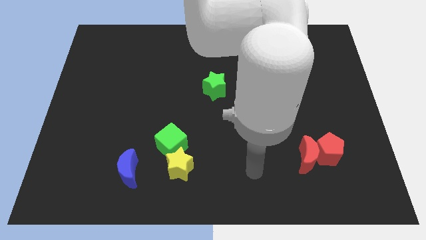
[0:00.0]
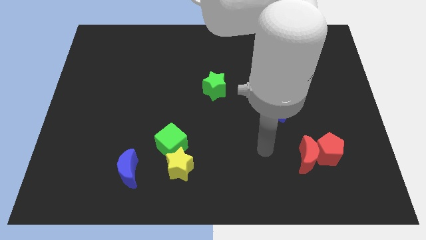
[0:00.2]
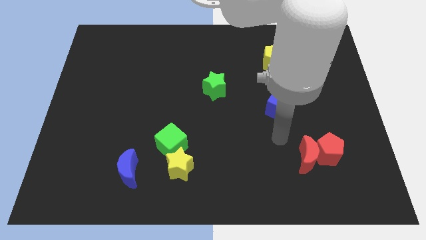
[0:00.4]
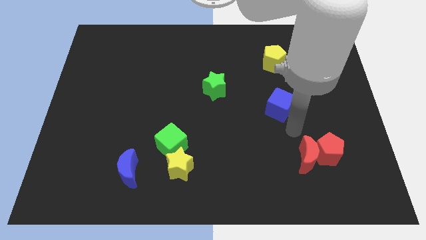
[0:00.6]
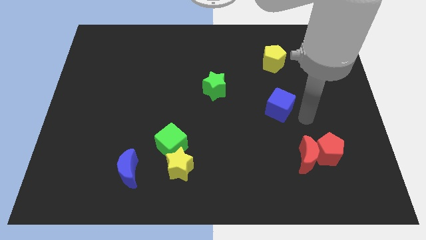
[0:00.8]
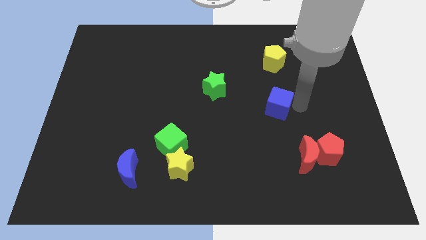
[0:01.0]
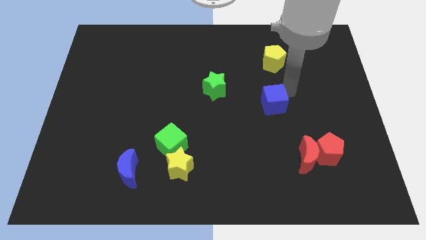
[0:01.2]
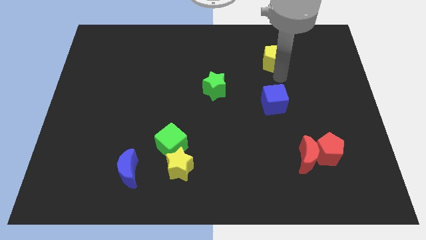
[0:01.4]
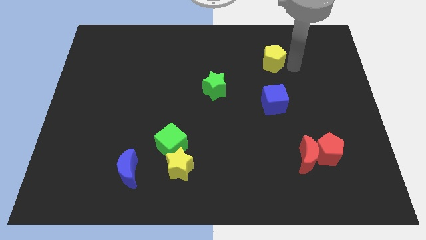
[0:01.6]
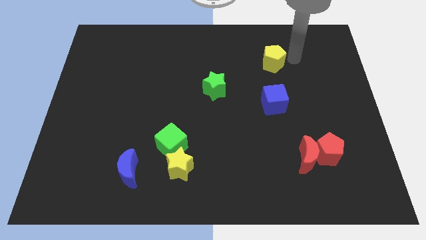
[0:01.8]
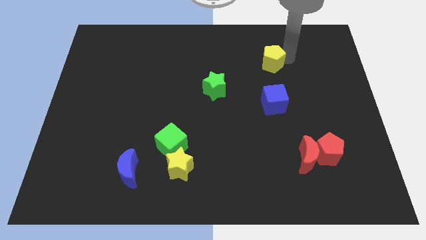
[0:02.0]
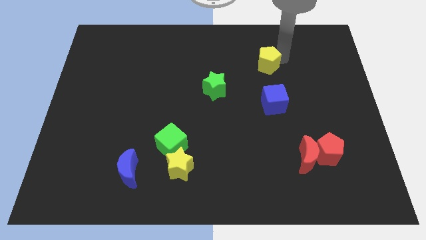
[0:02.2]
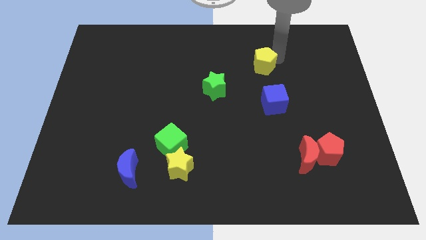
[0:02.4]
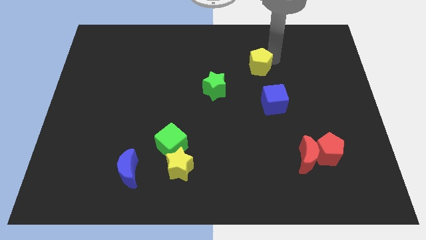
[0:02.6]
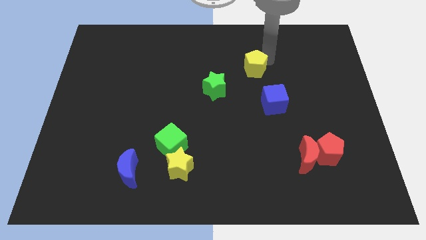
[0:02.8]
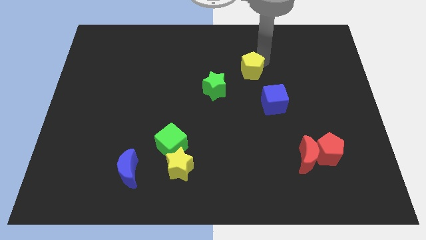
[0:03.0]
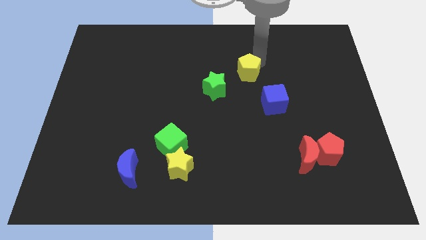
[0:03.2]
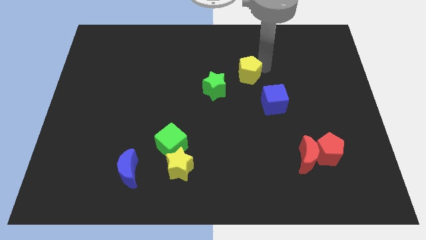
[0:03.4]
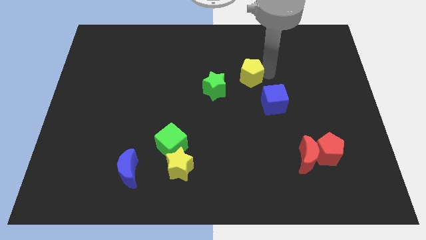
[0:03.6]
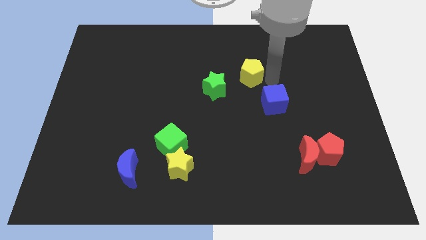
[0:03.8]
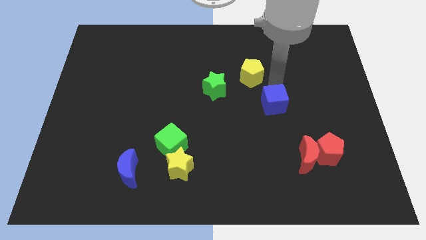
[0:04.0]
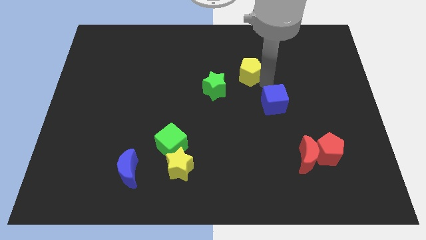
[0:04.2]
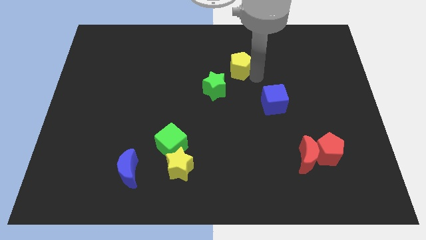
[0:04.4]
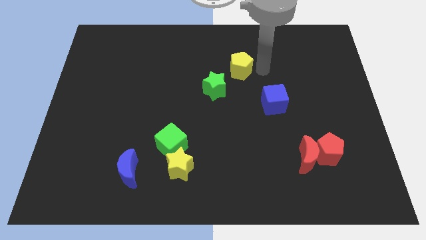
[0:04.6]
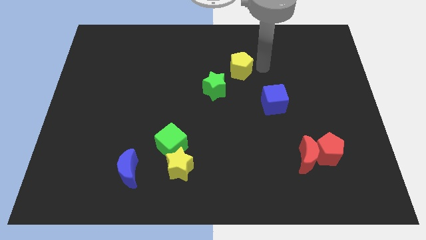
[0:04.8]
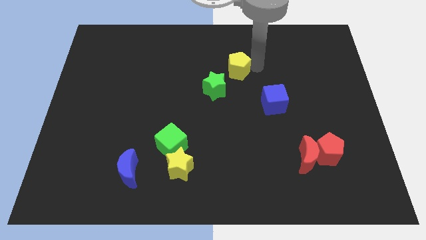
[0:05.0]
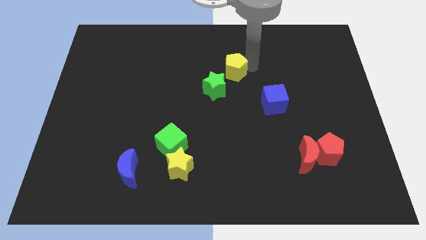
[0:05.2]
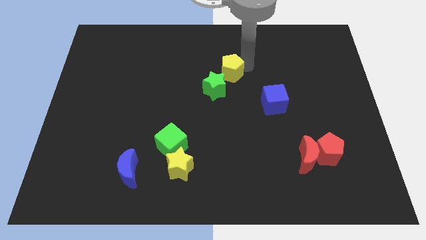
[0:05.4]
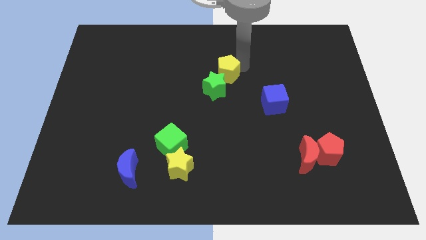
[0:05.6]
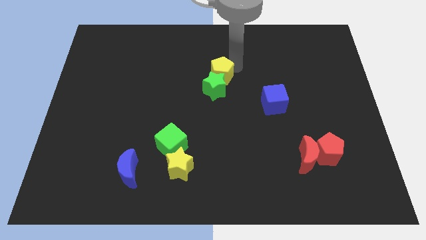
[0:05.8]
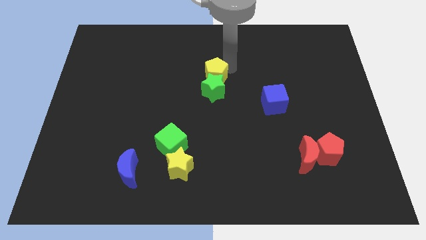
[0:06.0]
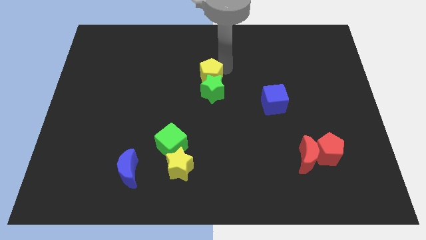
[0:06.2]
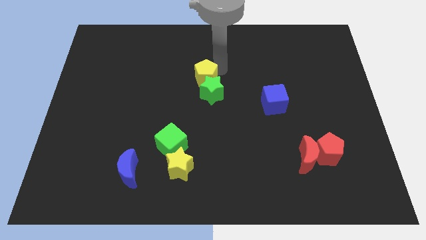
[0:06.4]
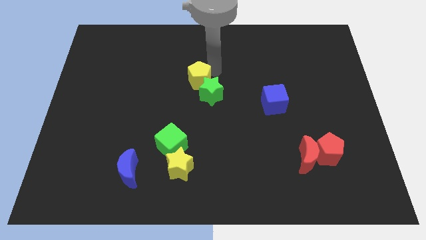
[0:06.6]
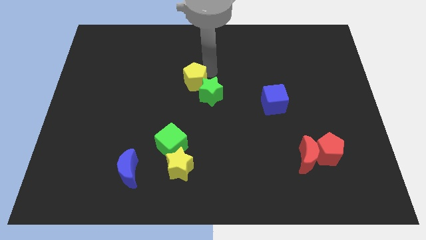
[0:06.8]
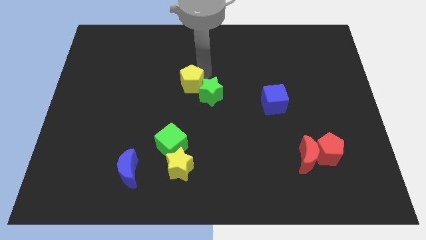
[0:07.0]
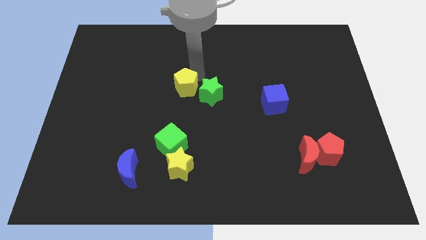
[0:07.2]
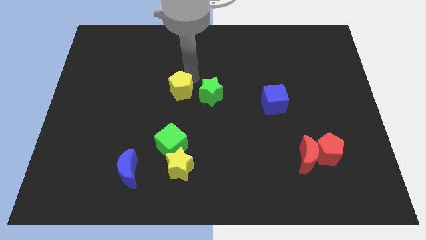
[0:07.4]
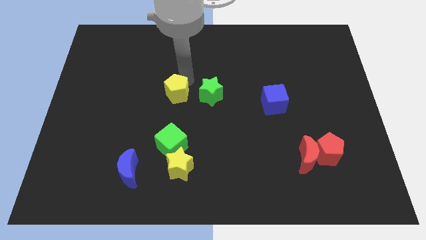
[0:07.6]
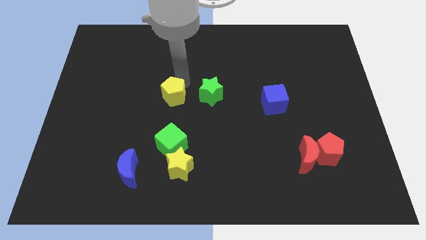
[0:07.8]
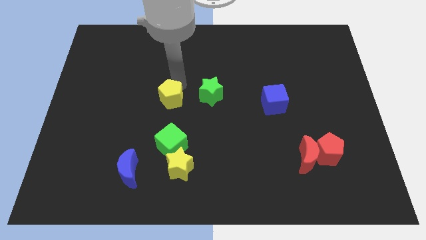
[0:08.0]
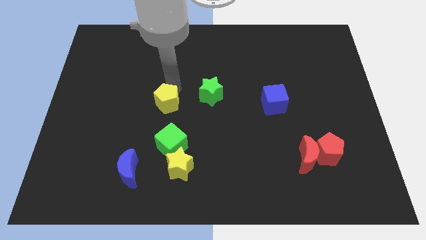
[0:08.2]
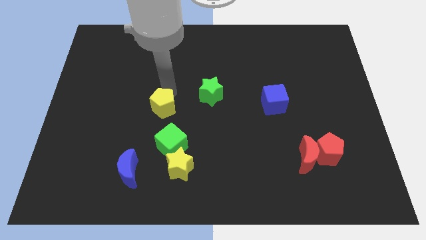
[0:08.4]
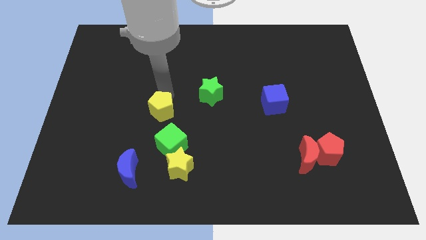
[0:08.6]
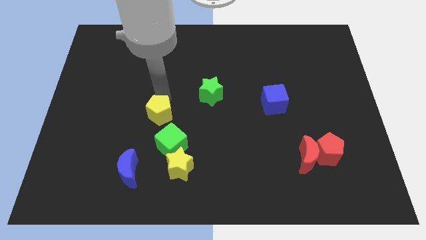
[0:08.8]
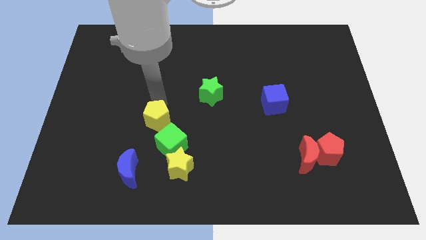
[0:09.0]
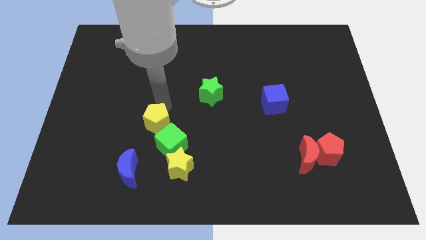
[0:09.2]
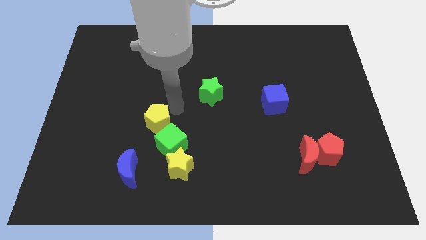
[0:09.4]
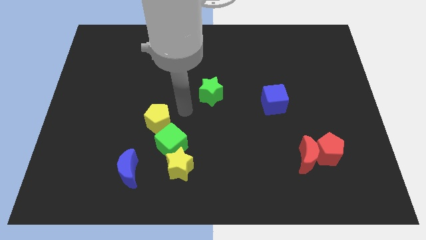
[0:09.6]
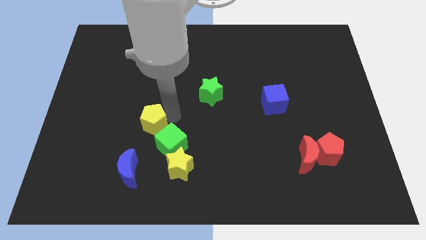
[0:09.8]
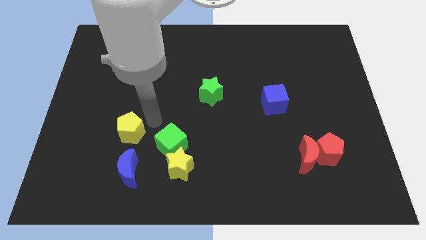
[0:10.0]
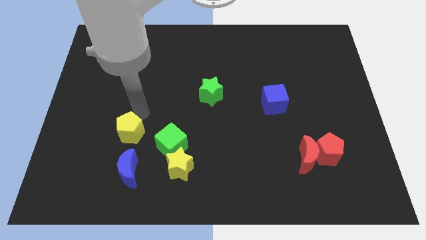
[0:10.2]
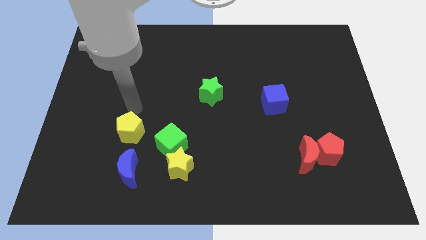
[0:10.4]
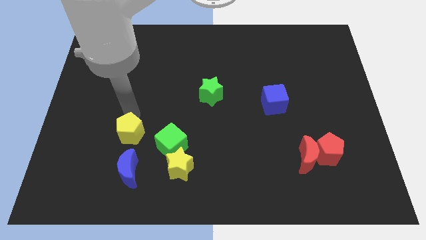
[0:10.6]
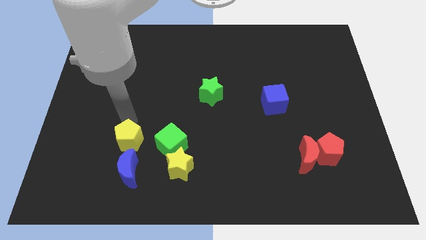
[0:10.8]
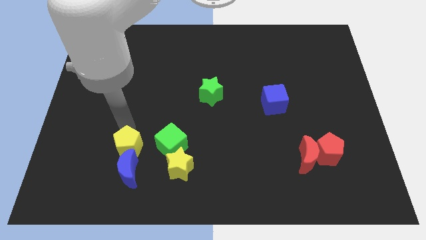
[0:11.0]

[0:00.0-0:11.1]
put the yellow pentagon to the blue moon
